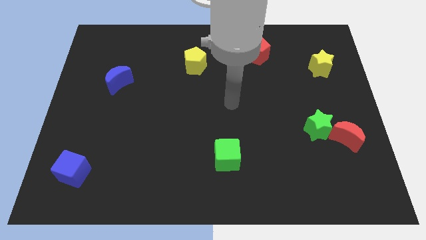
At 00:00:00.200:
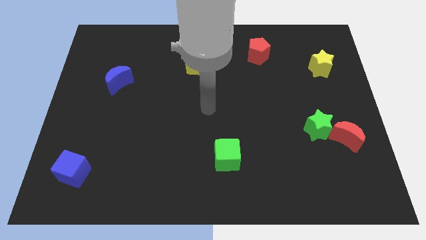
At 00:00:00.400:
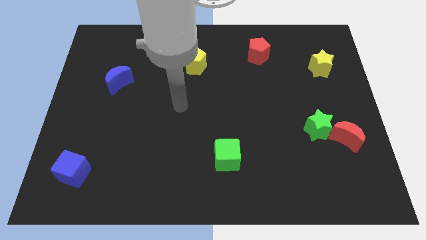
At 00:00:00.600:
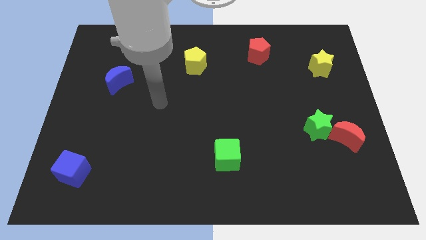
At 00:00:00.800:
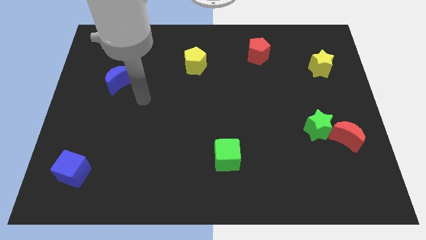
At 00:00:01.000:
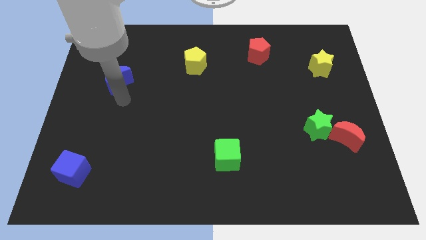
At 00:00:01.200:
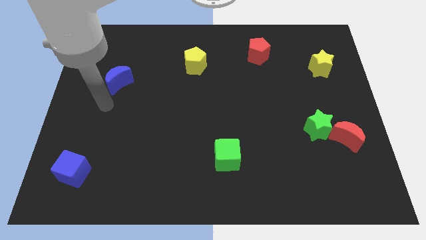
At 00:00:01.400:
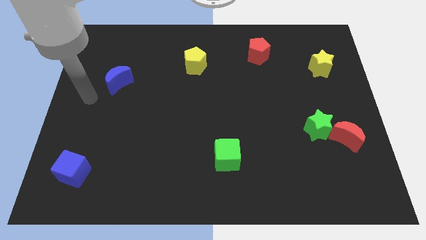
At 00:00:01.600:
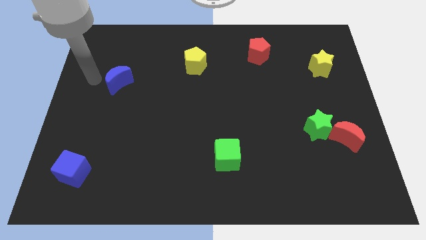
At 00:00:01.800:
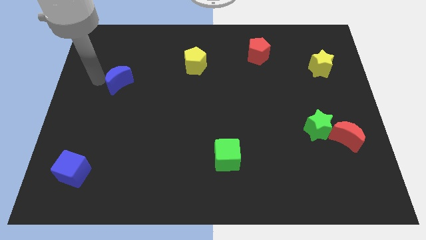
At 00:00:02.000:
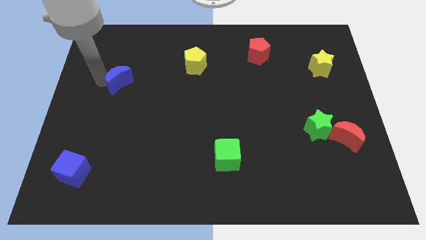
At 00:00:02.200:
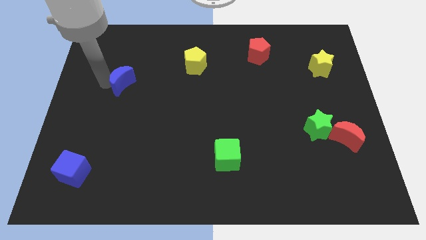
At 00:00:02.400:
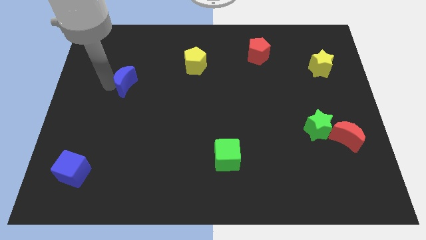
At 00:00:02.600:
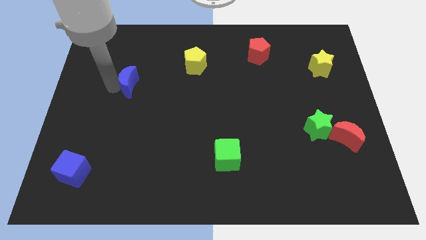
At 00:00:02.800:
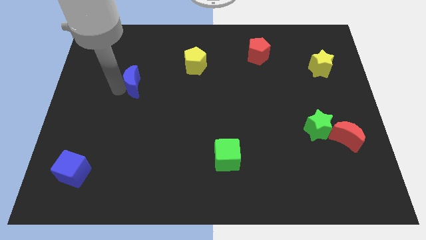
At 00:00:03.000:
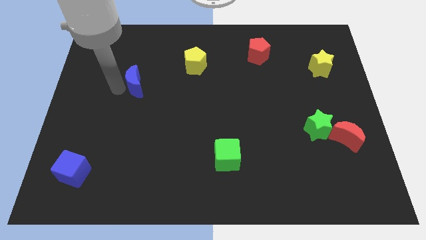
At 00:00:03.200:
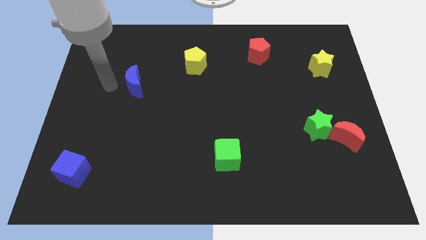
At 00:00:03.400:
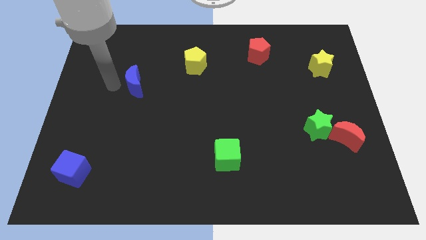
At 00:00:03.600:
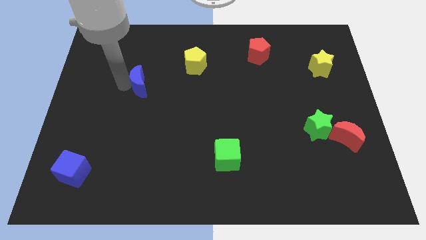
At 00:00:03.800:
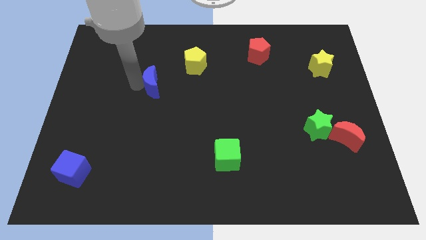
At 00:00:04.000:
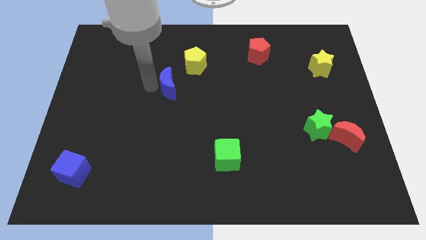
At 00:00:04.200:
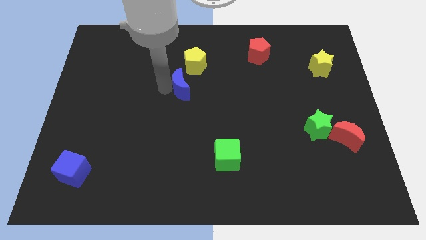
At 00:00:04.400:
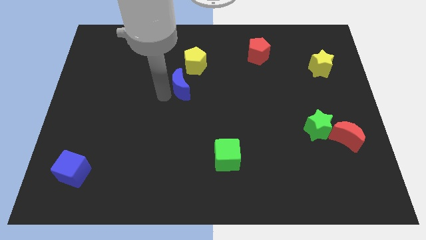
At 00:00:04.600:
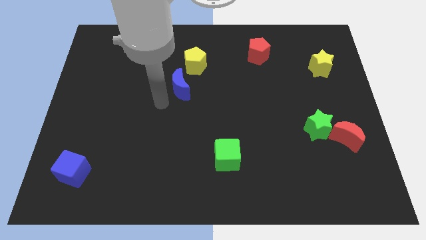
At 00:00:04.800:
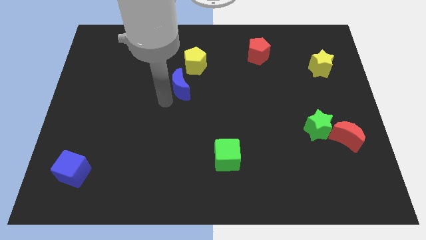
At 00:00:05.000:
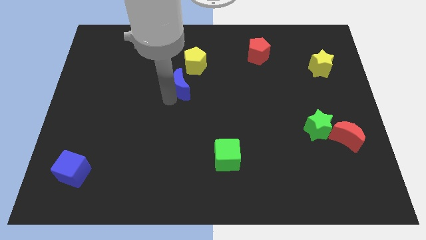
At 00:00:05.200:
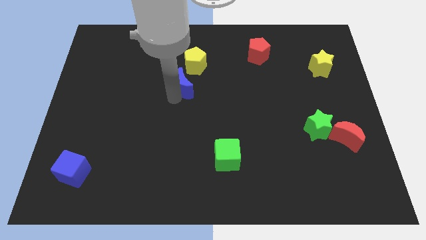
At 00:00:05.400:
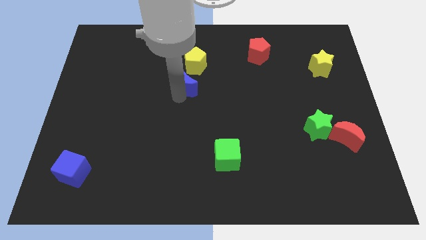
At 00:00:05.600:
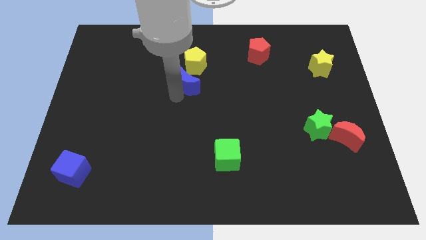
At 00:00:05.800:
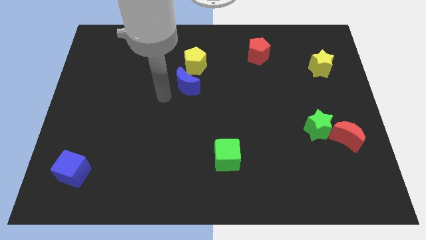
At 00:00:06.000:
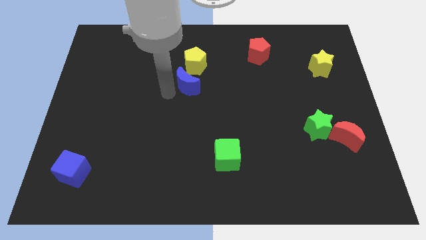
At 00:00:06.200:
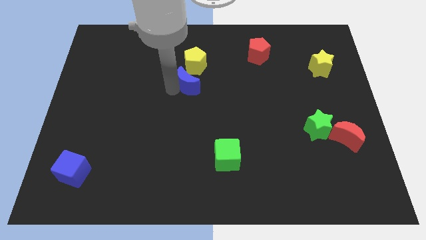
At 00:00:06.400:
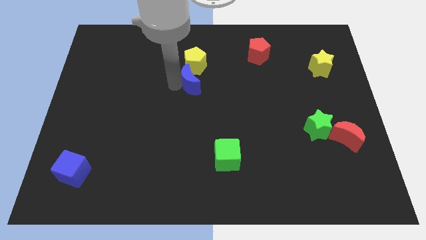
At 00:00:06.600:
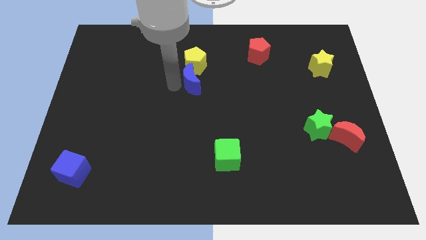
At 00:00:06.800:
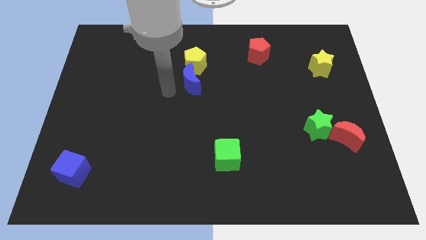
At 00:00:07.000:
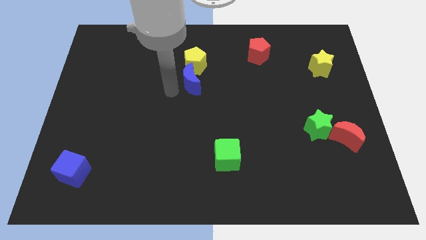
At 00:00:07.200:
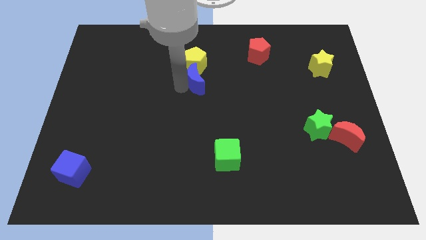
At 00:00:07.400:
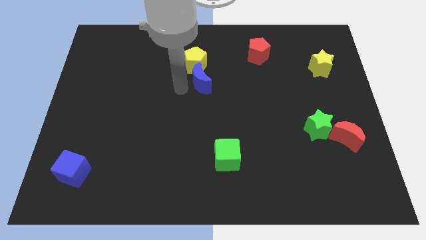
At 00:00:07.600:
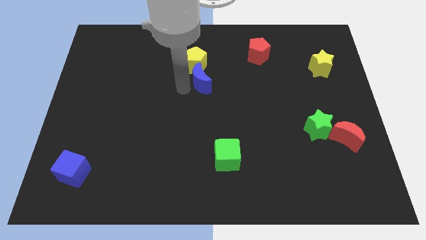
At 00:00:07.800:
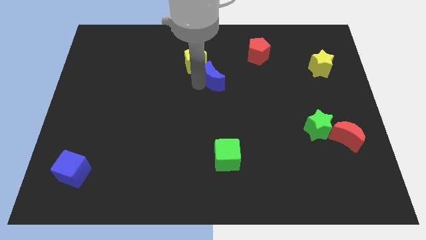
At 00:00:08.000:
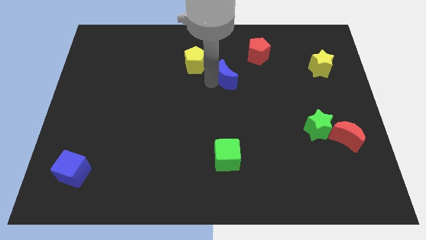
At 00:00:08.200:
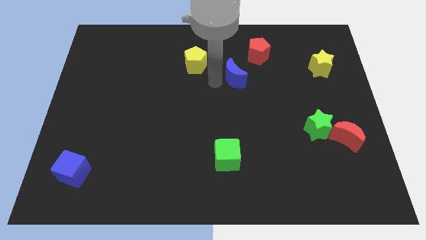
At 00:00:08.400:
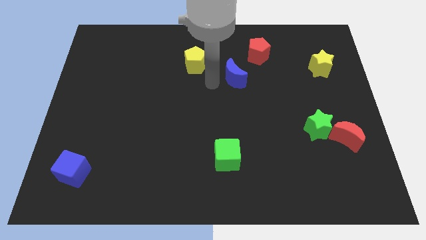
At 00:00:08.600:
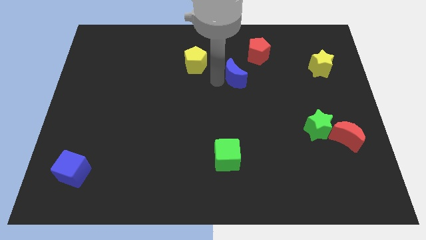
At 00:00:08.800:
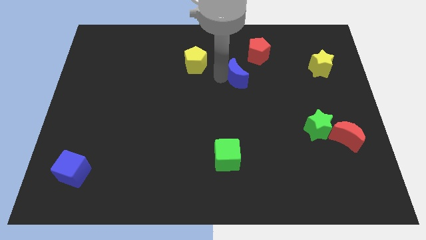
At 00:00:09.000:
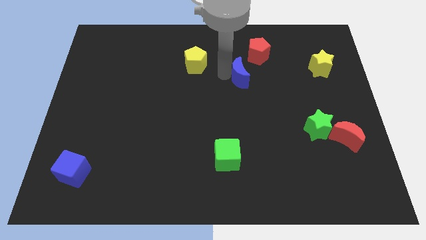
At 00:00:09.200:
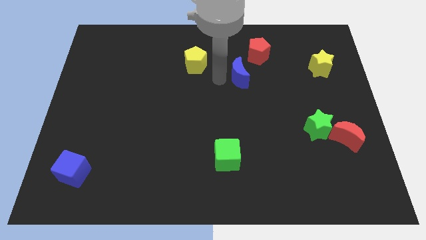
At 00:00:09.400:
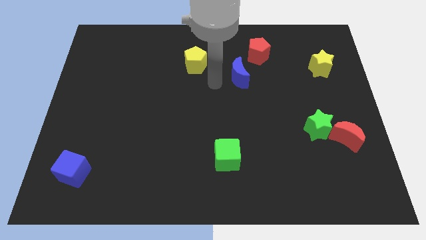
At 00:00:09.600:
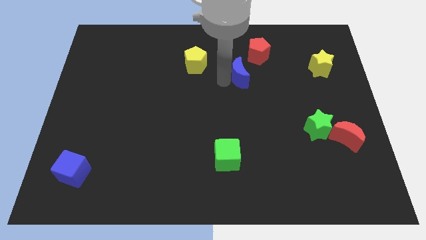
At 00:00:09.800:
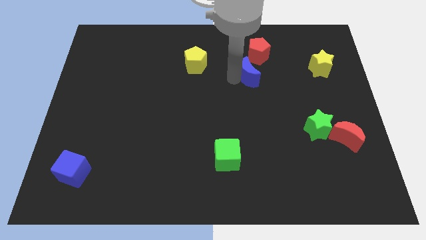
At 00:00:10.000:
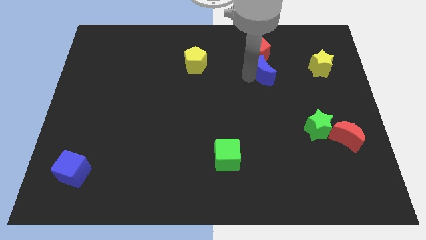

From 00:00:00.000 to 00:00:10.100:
put the blue moon left of the yellow star

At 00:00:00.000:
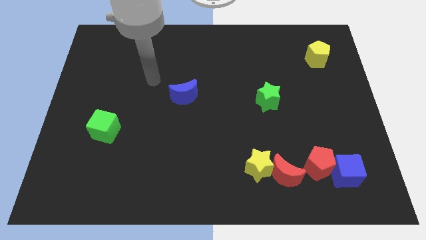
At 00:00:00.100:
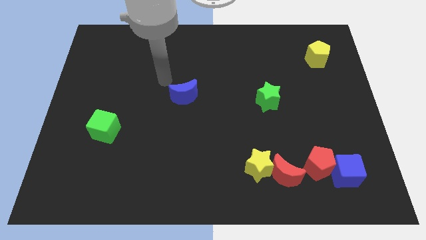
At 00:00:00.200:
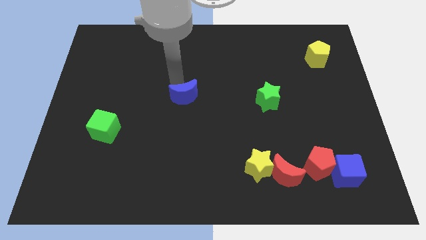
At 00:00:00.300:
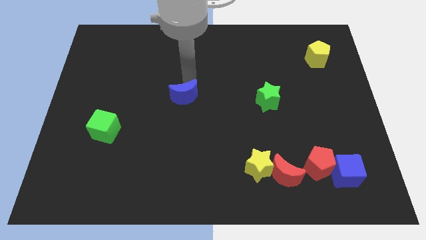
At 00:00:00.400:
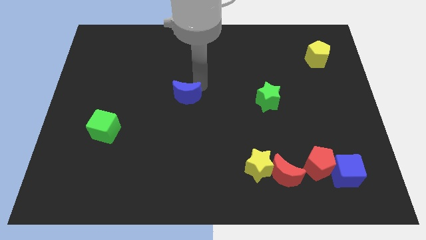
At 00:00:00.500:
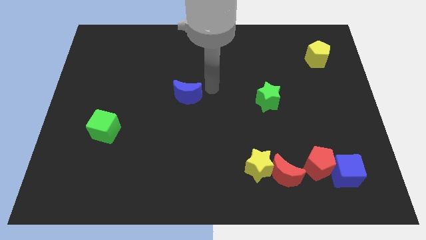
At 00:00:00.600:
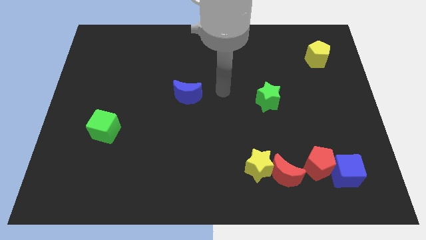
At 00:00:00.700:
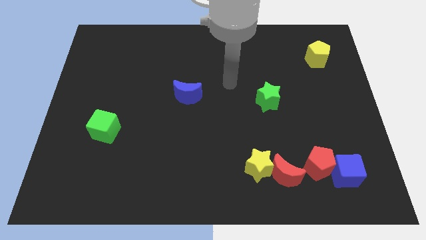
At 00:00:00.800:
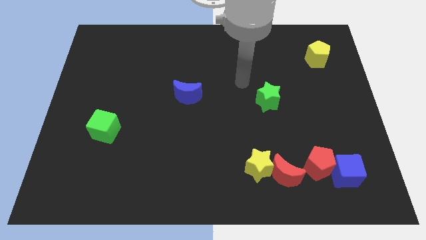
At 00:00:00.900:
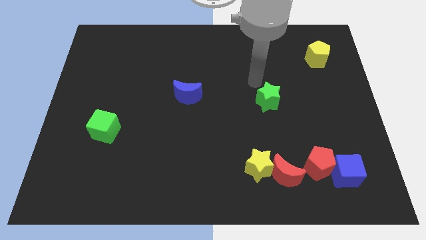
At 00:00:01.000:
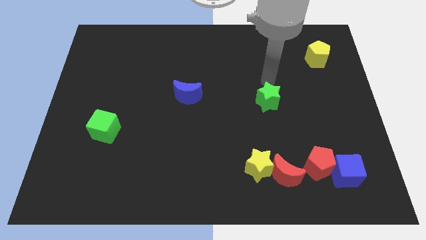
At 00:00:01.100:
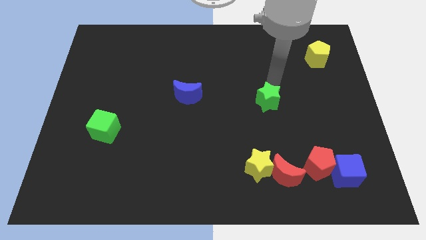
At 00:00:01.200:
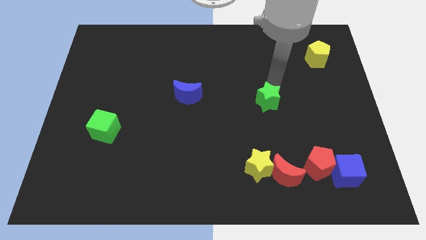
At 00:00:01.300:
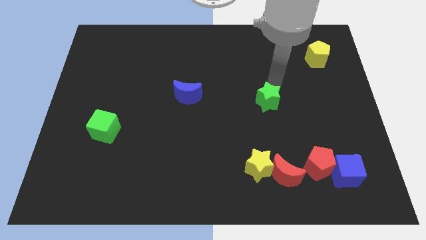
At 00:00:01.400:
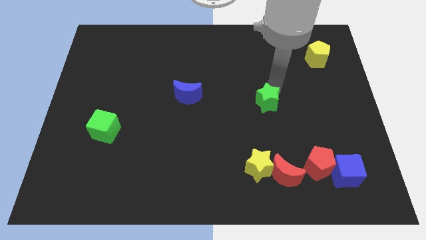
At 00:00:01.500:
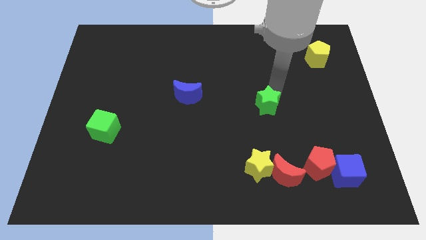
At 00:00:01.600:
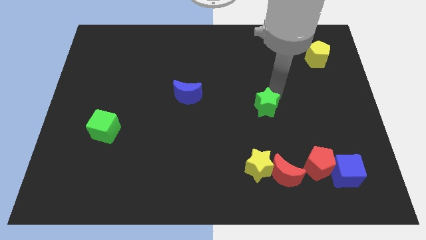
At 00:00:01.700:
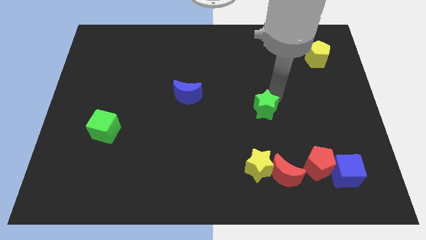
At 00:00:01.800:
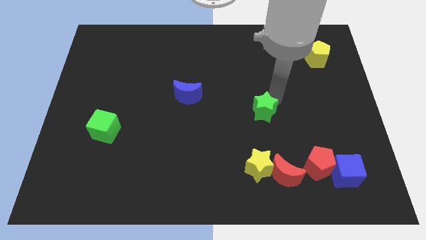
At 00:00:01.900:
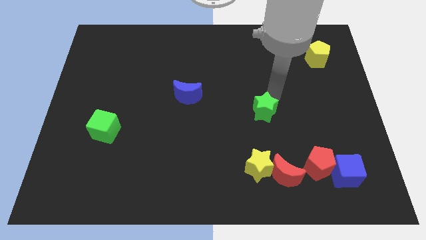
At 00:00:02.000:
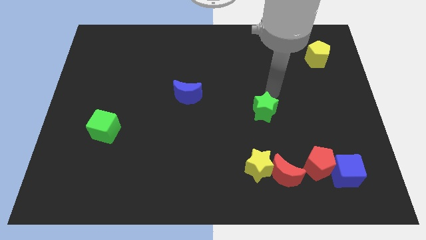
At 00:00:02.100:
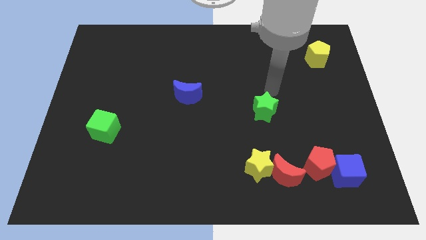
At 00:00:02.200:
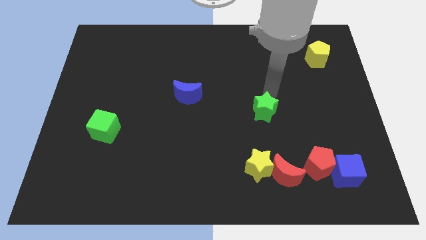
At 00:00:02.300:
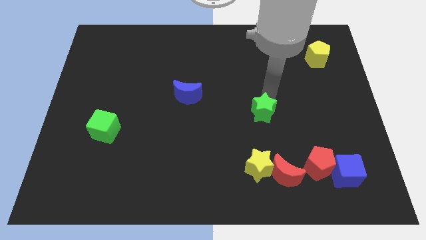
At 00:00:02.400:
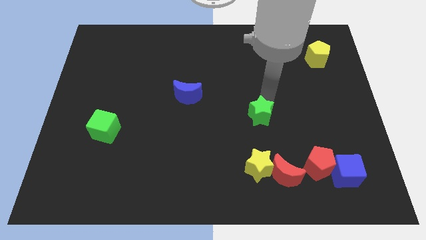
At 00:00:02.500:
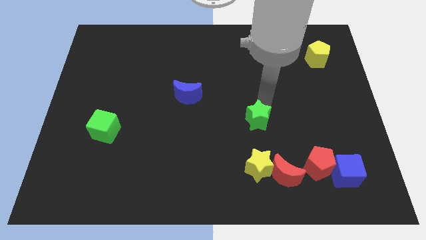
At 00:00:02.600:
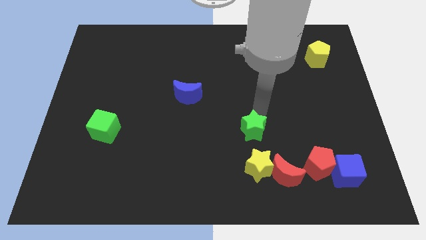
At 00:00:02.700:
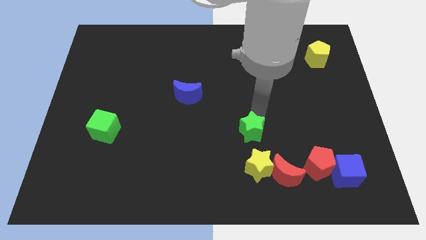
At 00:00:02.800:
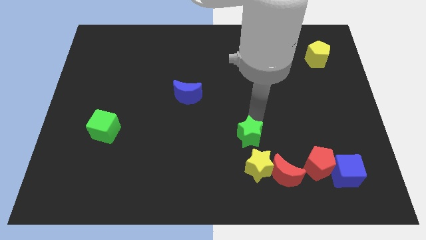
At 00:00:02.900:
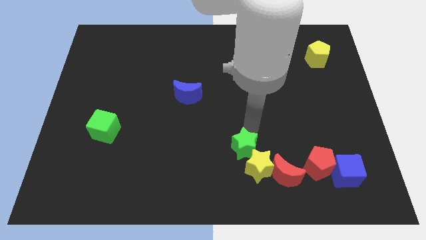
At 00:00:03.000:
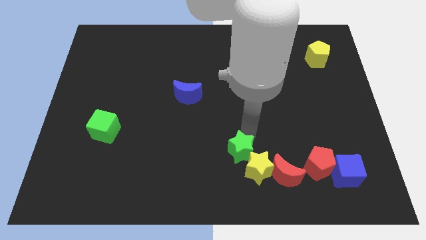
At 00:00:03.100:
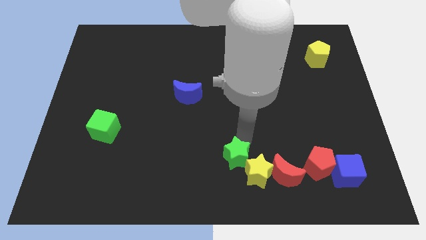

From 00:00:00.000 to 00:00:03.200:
push the green star to the left side of the red moon
